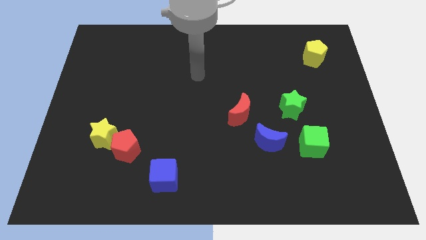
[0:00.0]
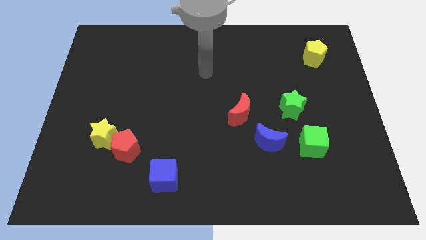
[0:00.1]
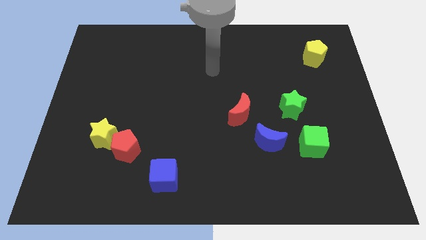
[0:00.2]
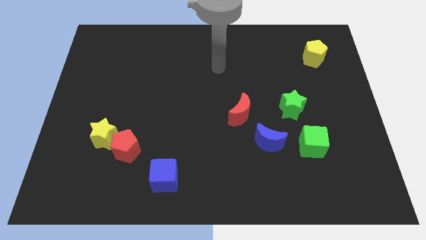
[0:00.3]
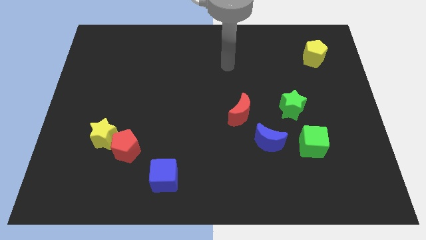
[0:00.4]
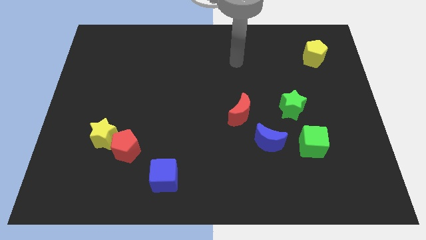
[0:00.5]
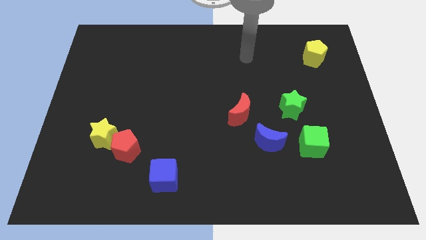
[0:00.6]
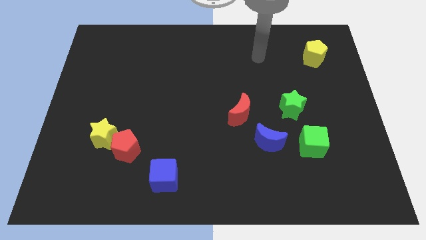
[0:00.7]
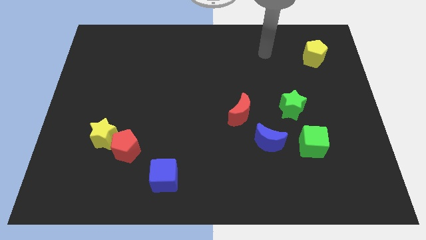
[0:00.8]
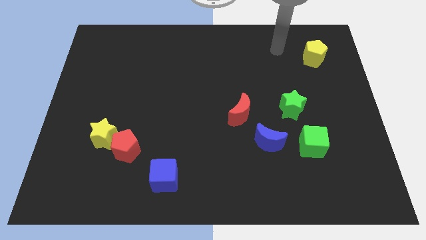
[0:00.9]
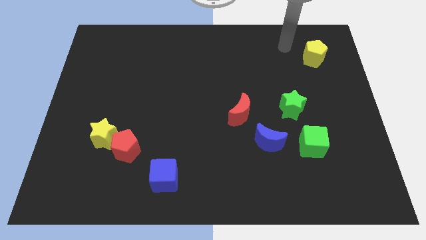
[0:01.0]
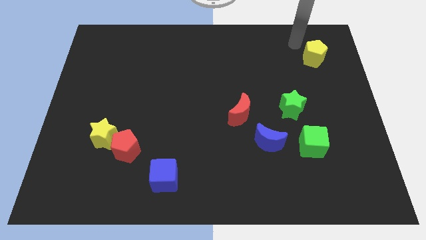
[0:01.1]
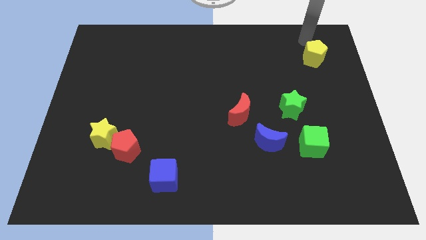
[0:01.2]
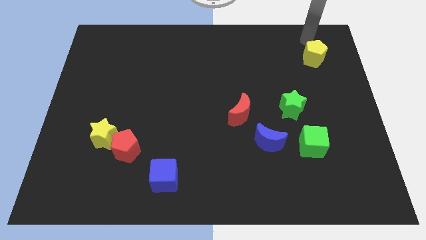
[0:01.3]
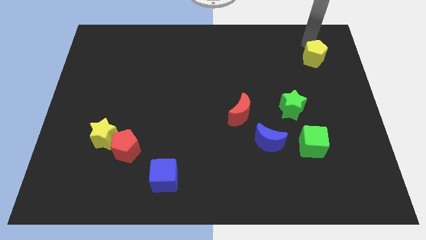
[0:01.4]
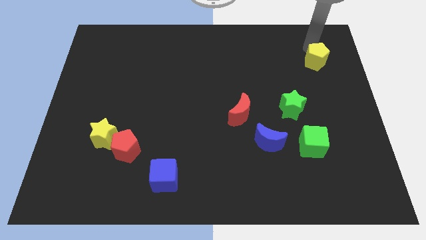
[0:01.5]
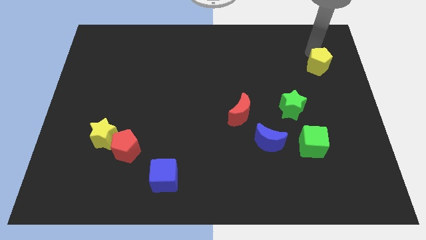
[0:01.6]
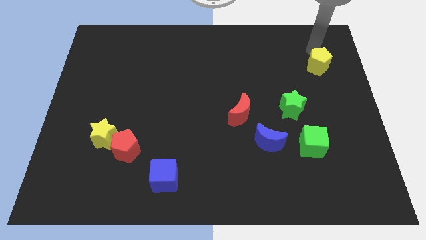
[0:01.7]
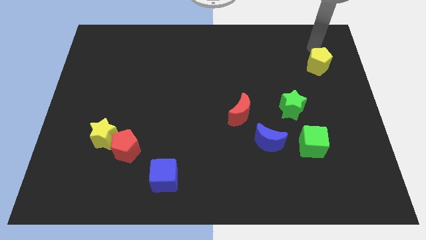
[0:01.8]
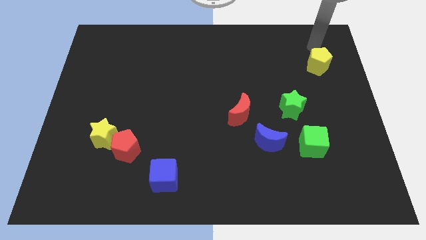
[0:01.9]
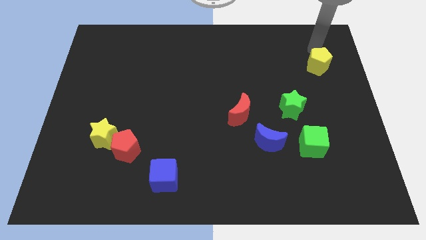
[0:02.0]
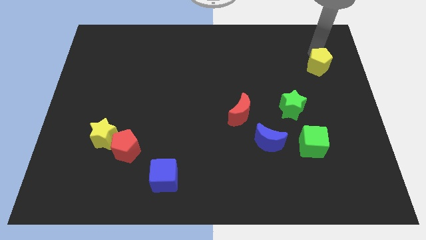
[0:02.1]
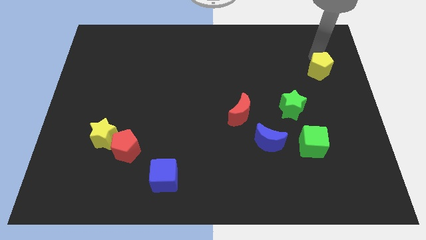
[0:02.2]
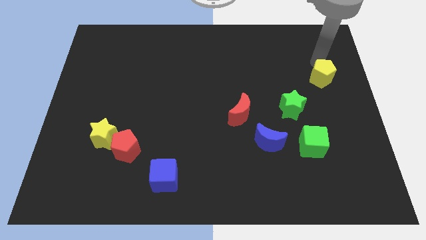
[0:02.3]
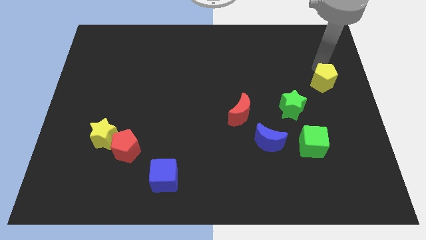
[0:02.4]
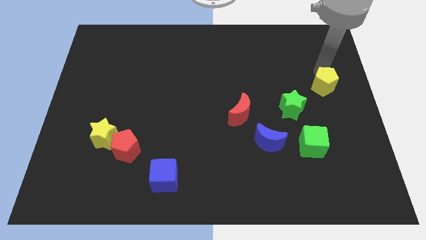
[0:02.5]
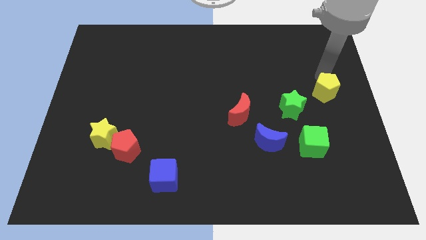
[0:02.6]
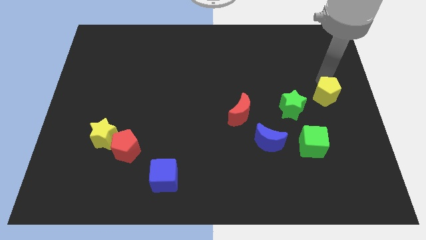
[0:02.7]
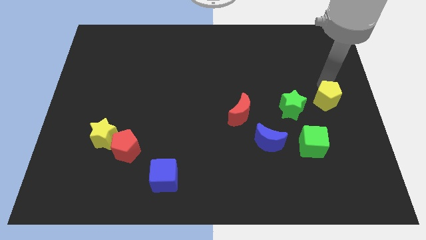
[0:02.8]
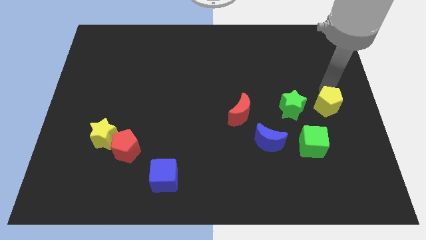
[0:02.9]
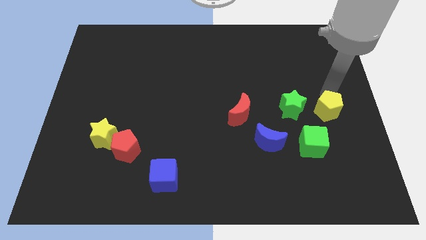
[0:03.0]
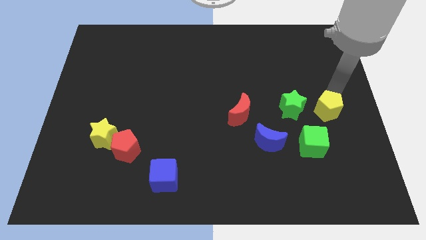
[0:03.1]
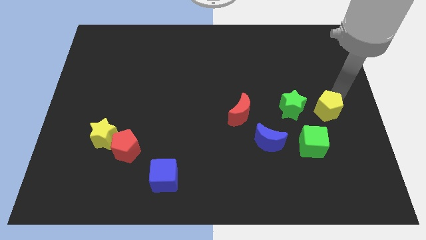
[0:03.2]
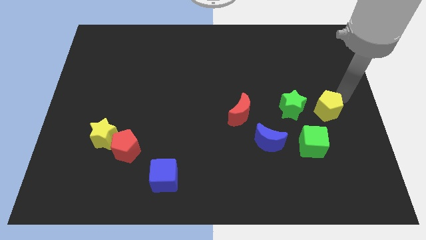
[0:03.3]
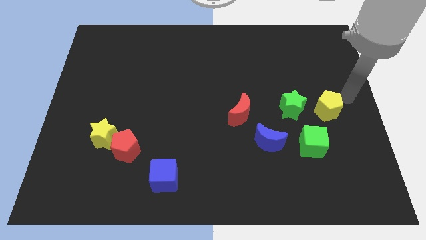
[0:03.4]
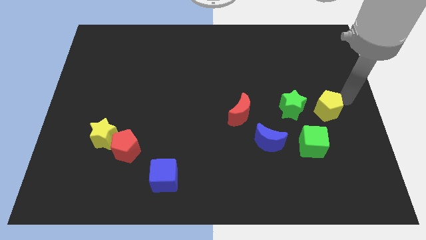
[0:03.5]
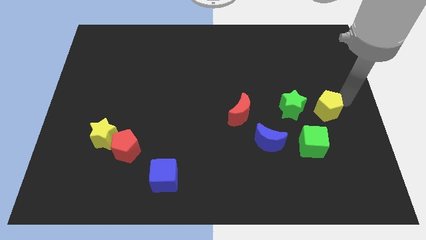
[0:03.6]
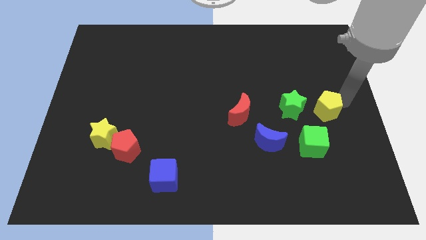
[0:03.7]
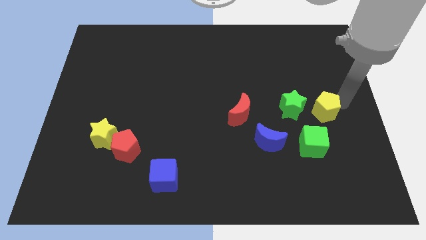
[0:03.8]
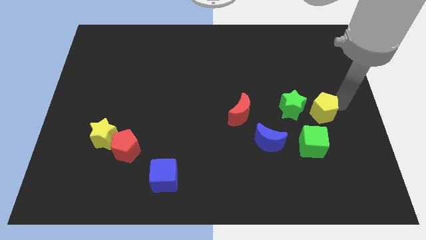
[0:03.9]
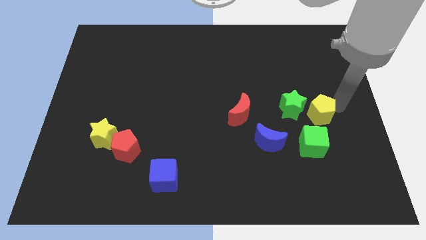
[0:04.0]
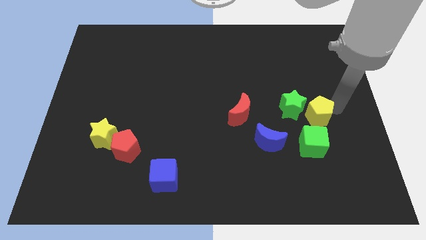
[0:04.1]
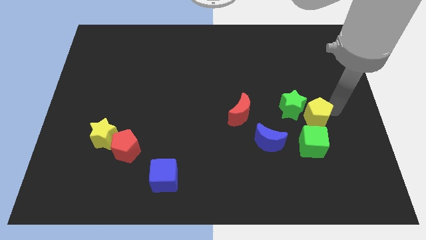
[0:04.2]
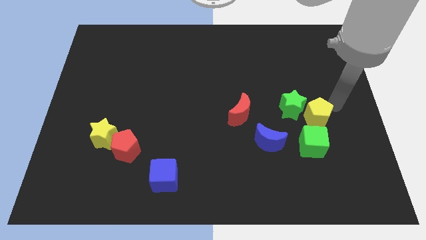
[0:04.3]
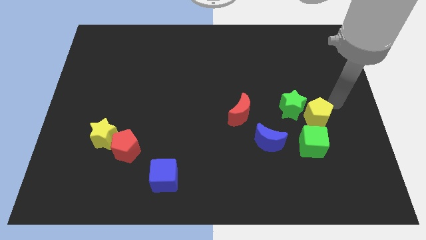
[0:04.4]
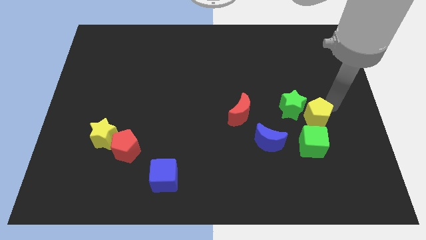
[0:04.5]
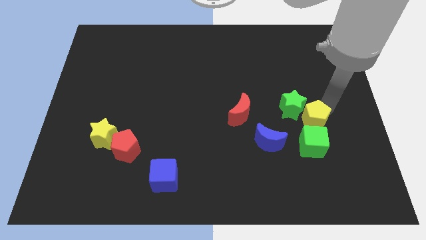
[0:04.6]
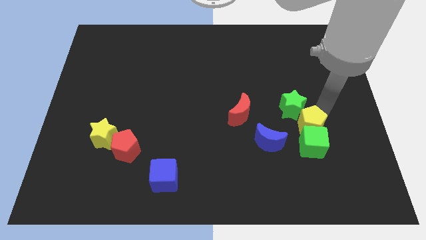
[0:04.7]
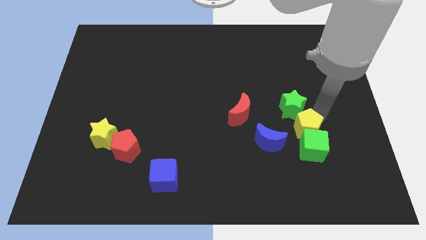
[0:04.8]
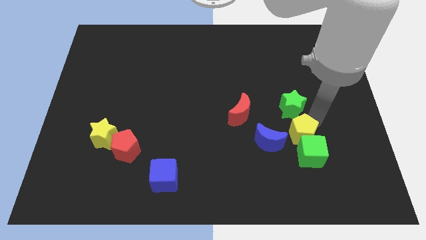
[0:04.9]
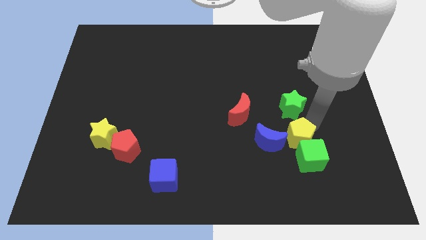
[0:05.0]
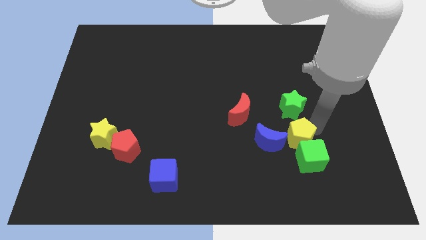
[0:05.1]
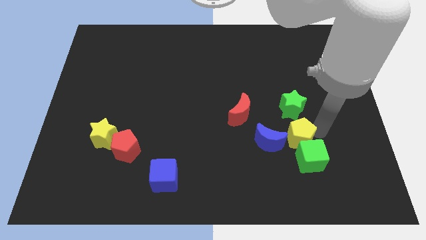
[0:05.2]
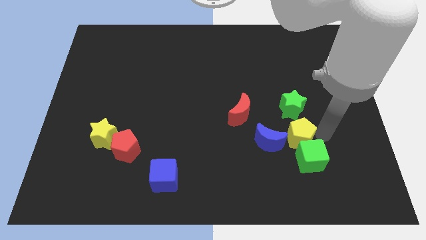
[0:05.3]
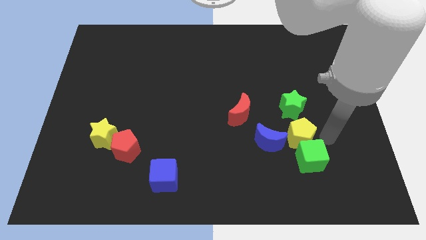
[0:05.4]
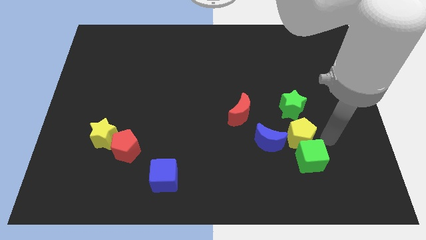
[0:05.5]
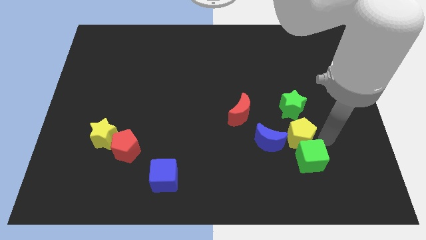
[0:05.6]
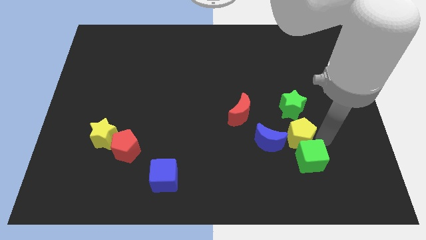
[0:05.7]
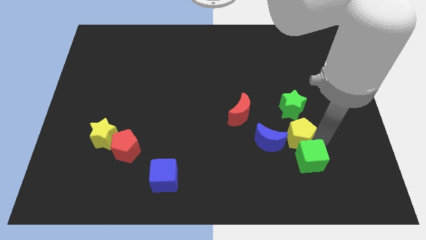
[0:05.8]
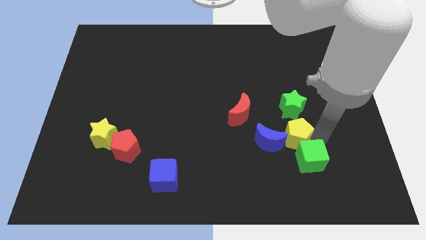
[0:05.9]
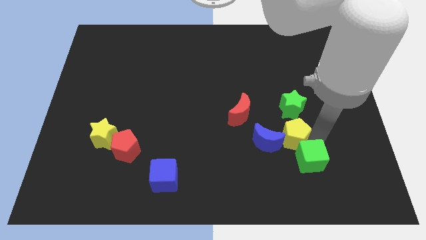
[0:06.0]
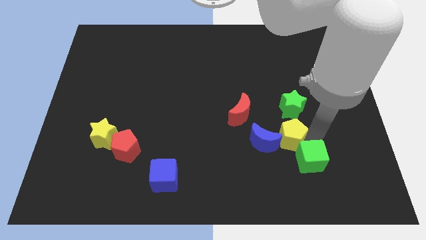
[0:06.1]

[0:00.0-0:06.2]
slide the yellow pentagon next to the blue moon

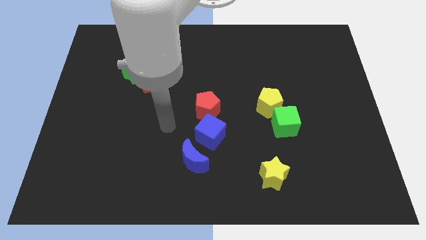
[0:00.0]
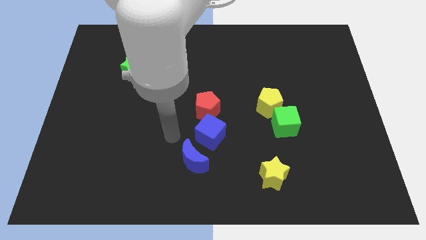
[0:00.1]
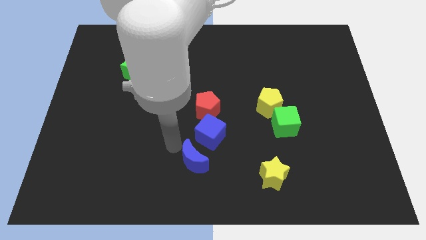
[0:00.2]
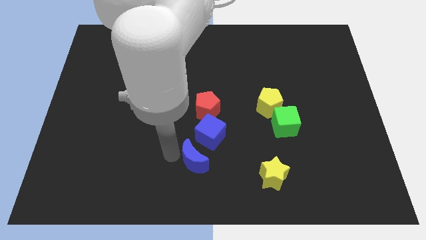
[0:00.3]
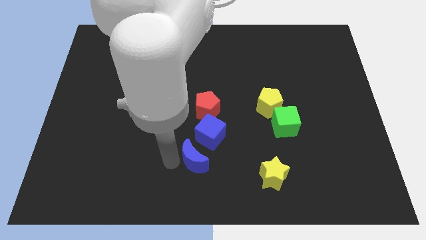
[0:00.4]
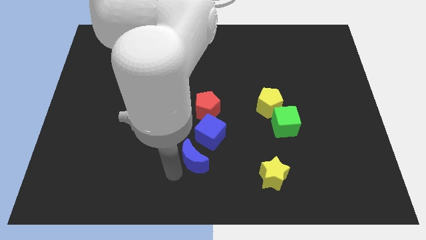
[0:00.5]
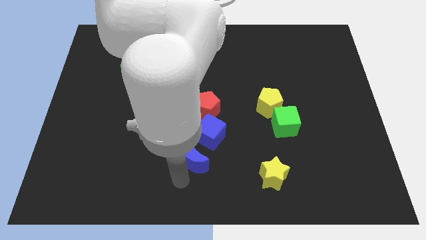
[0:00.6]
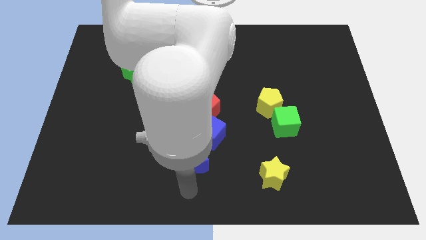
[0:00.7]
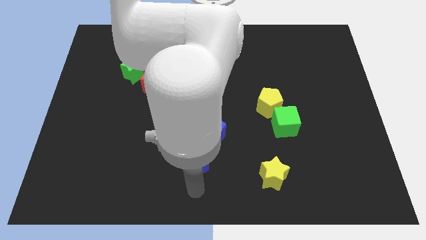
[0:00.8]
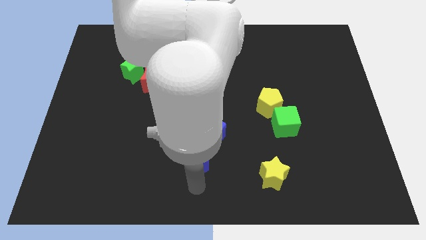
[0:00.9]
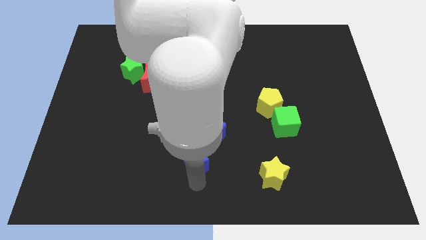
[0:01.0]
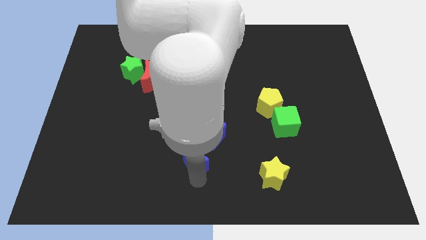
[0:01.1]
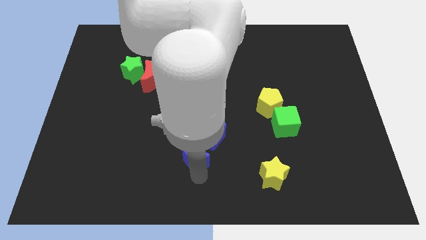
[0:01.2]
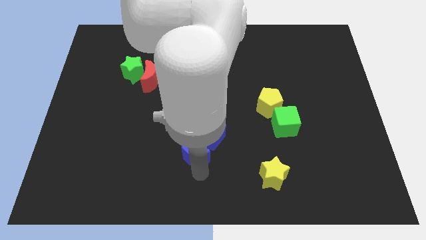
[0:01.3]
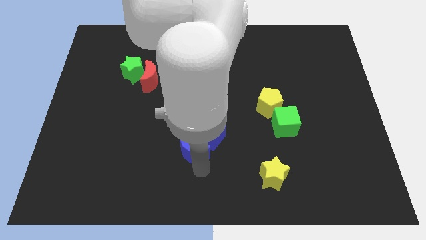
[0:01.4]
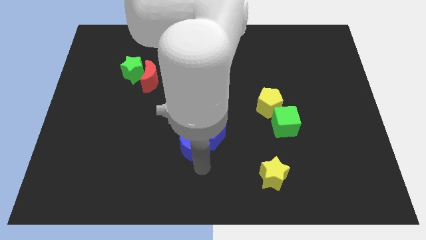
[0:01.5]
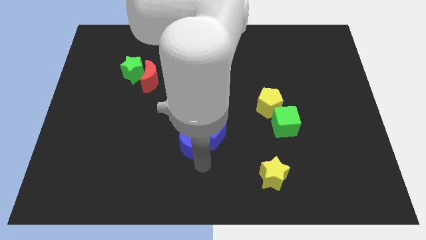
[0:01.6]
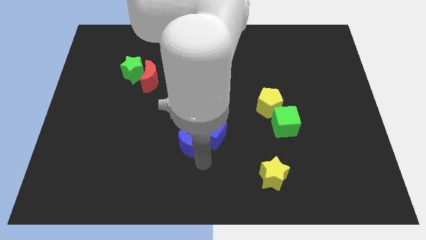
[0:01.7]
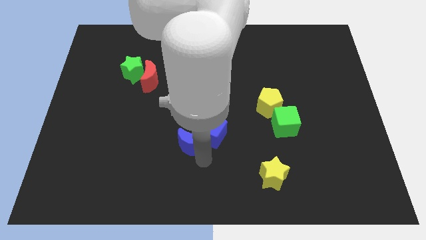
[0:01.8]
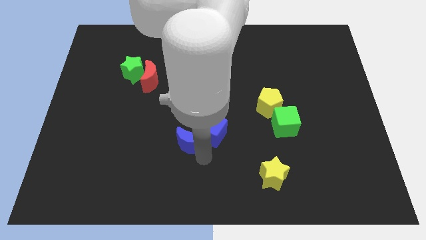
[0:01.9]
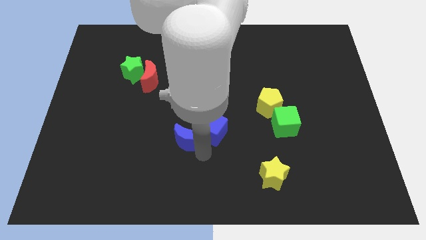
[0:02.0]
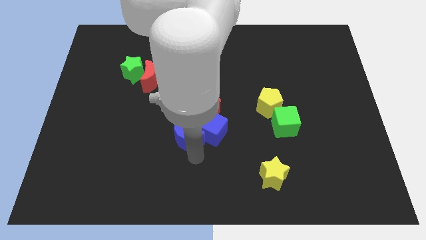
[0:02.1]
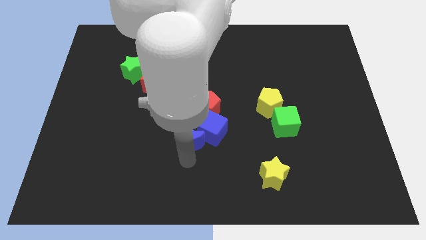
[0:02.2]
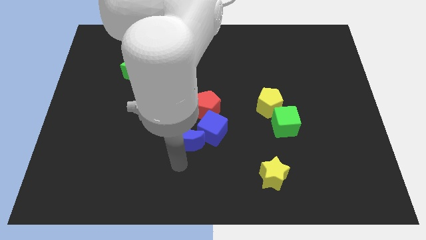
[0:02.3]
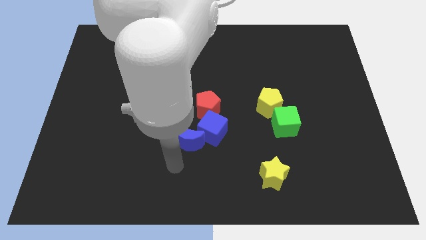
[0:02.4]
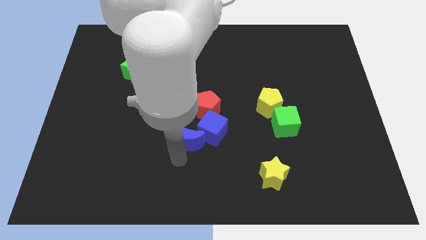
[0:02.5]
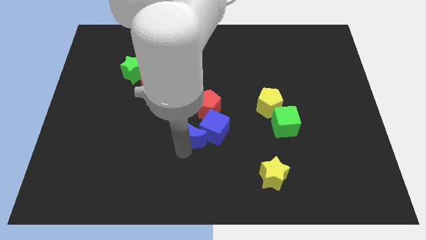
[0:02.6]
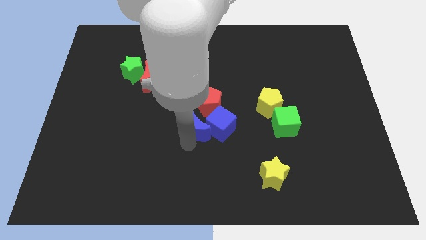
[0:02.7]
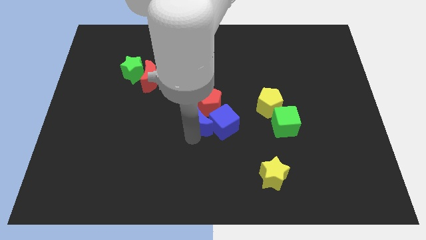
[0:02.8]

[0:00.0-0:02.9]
put the blue moon close to the red pentagon
